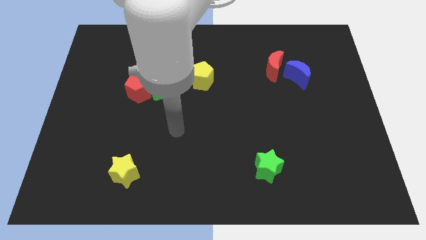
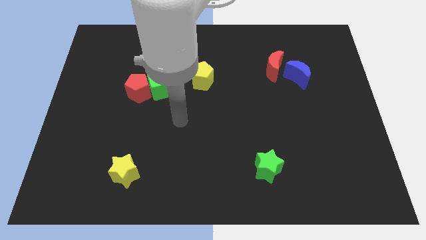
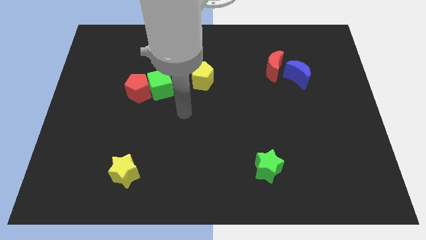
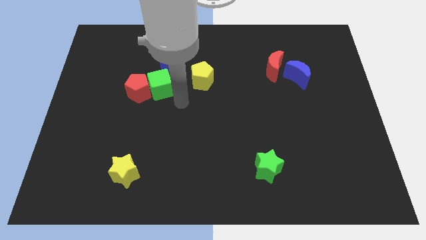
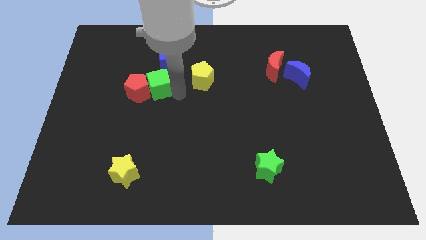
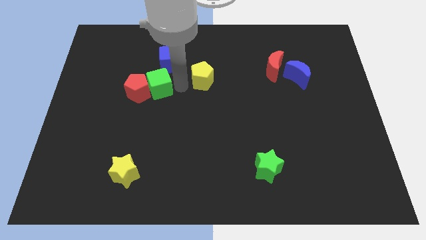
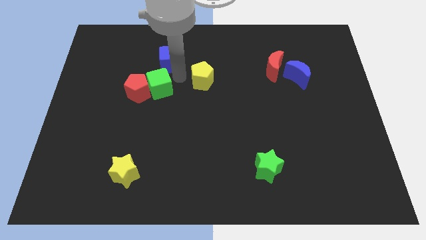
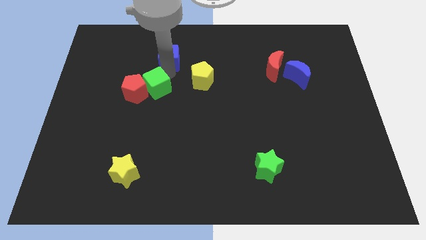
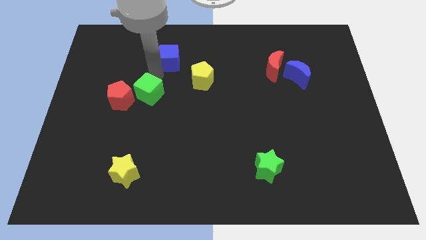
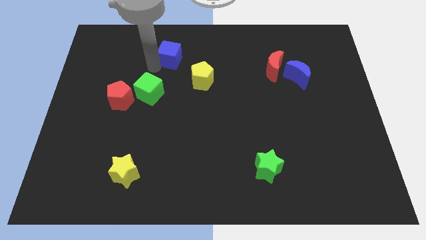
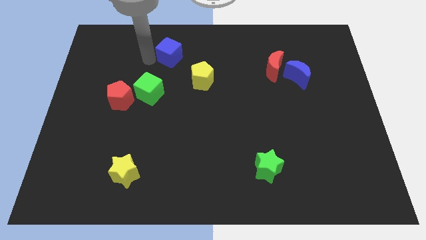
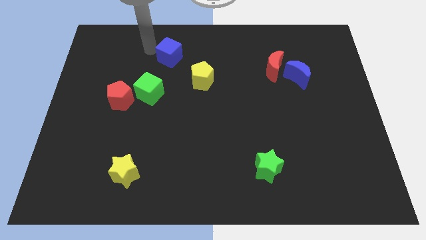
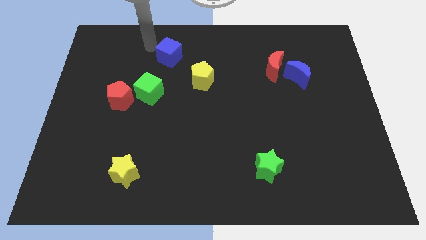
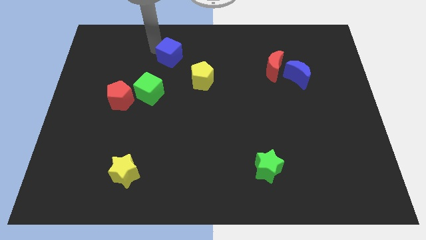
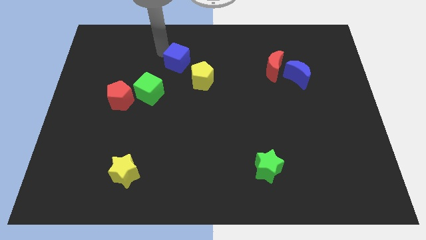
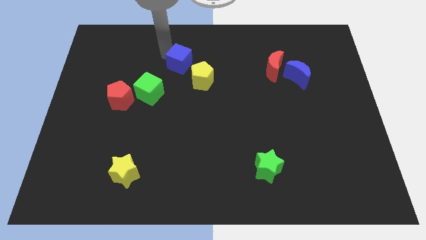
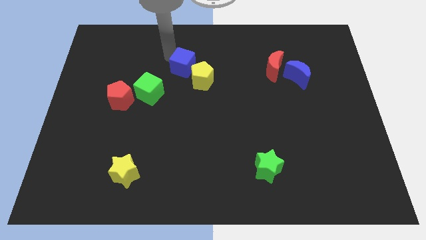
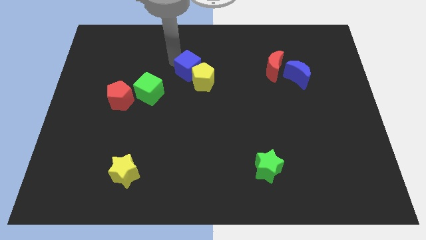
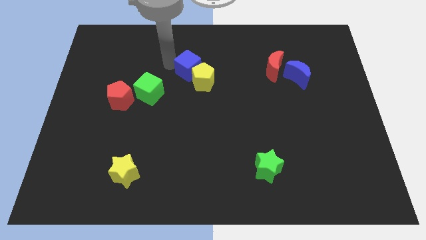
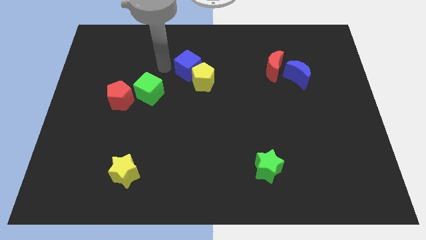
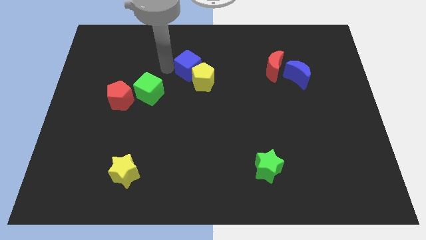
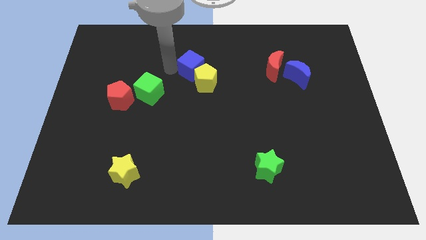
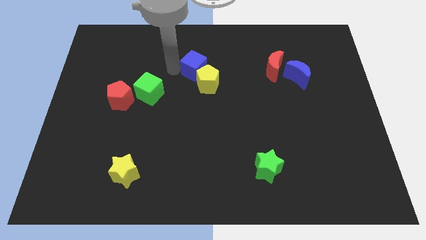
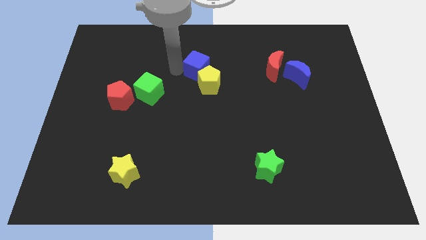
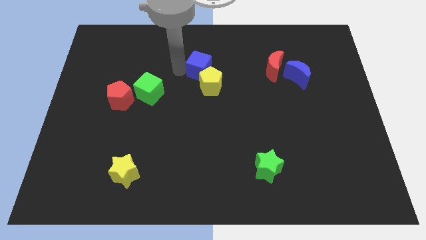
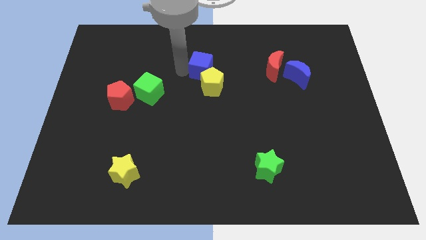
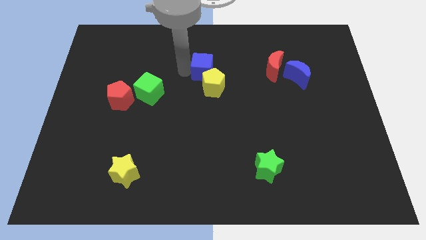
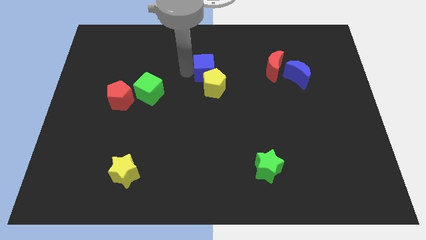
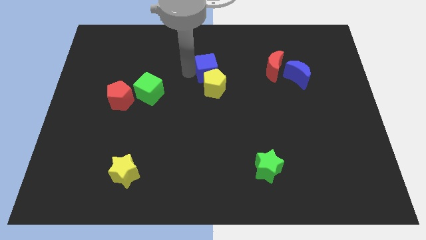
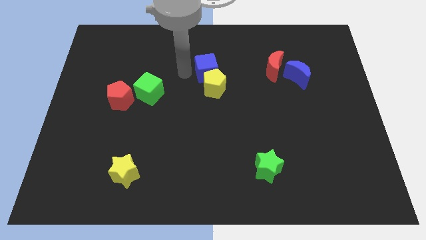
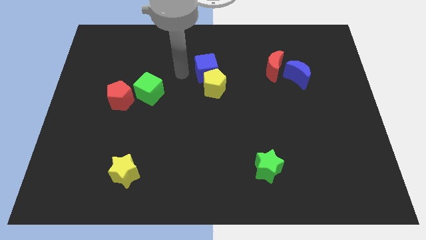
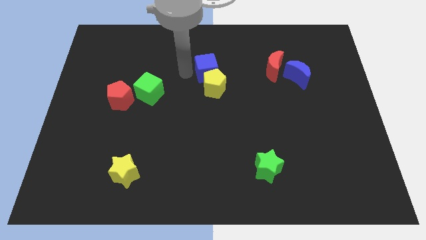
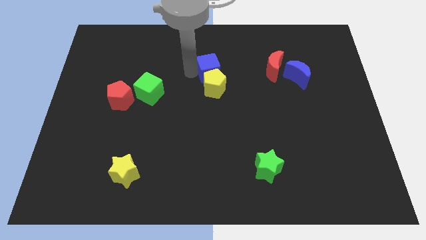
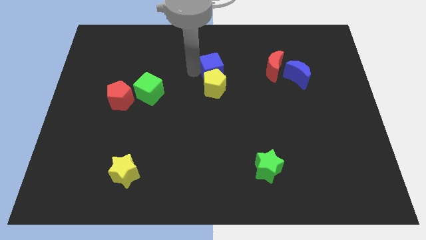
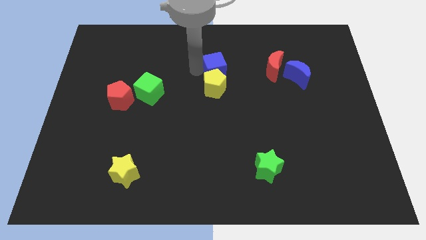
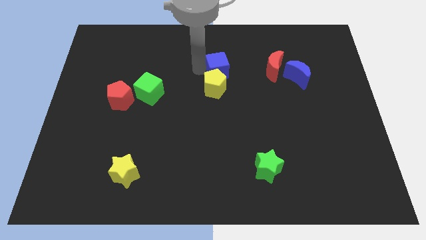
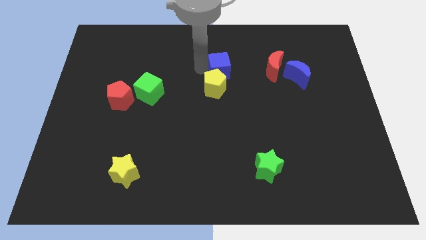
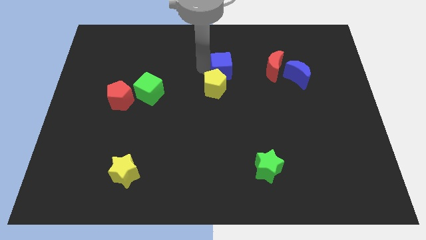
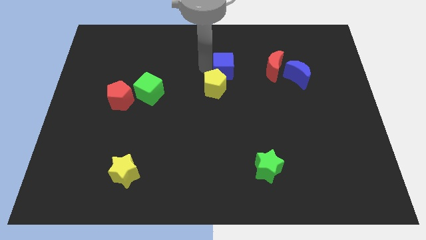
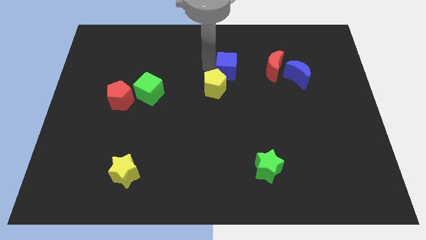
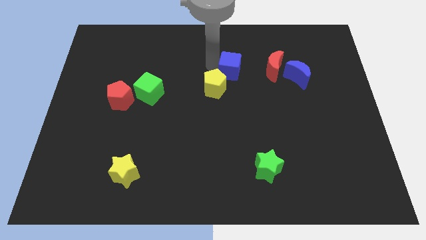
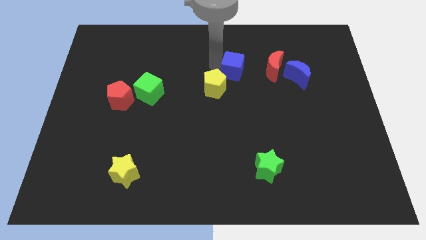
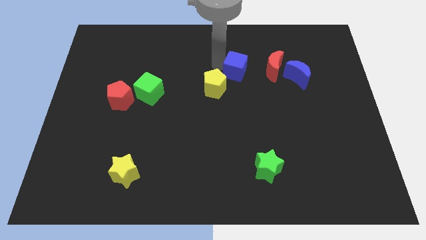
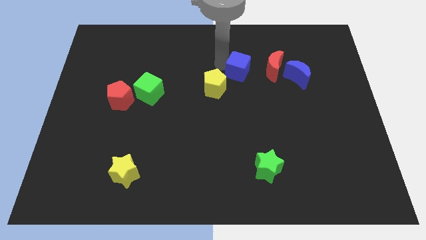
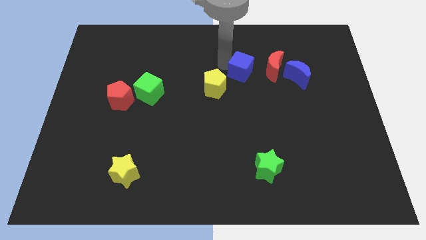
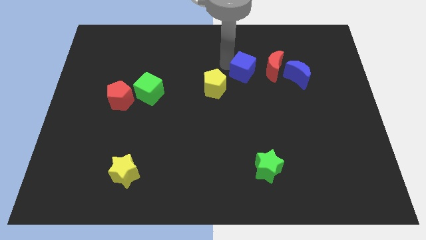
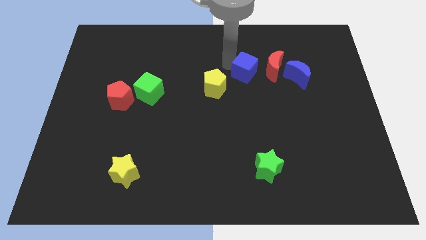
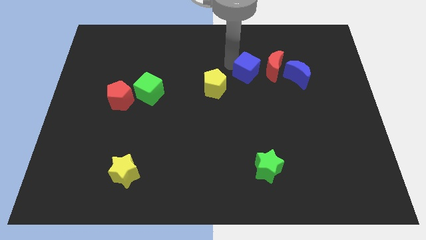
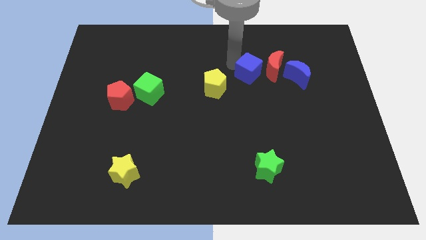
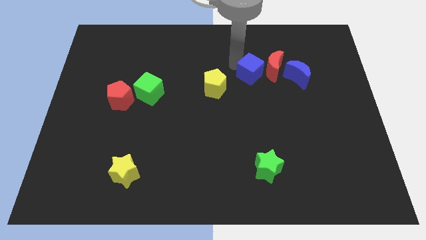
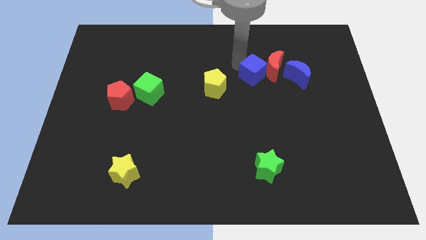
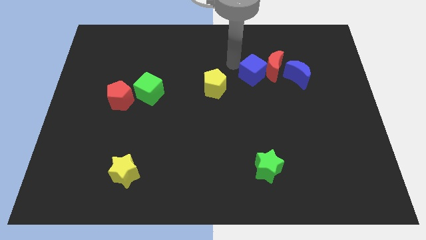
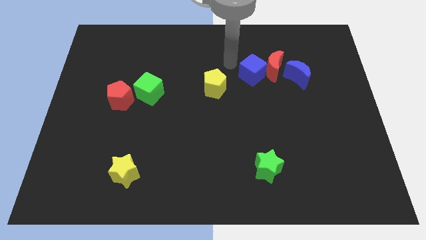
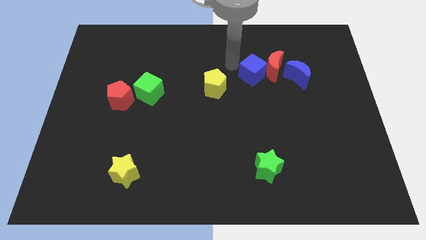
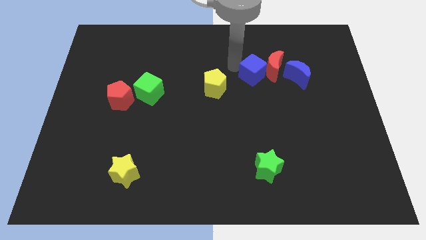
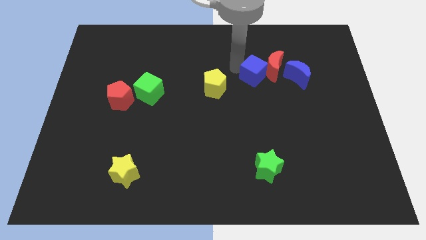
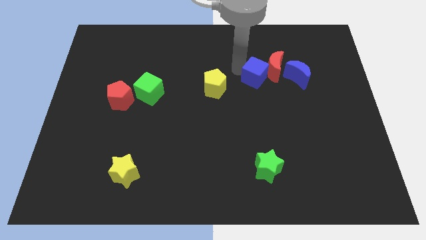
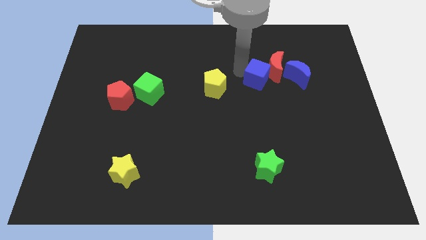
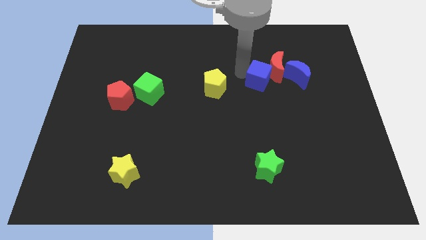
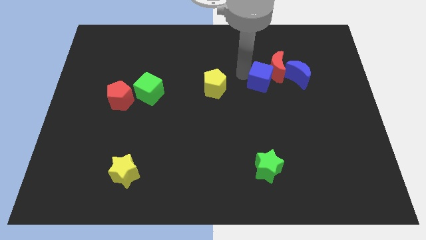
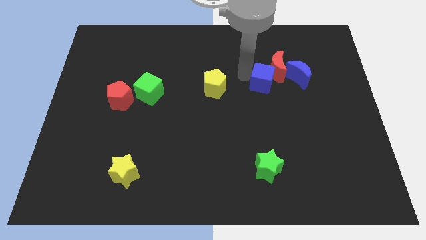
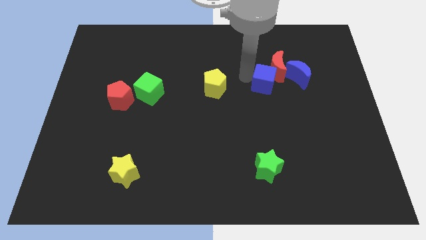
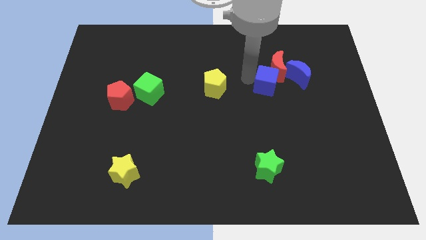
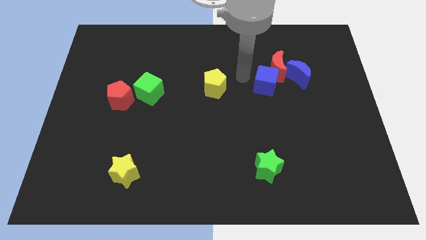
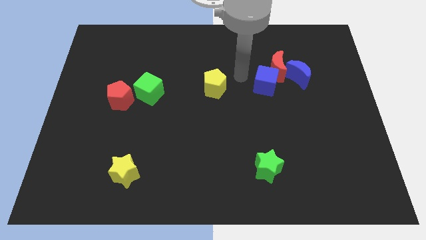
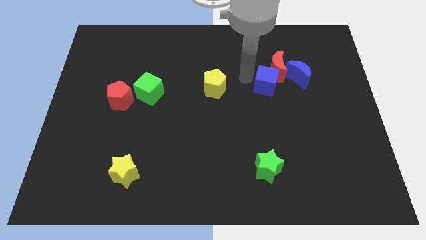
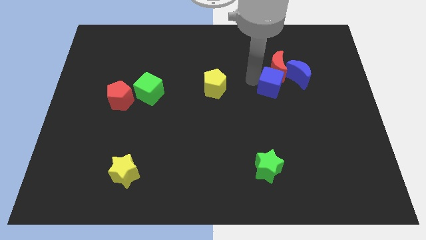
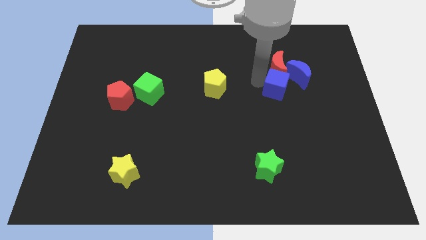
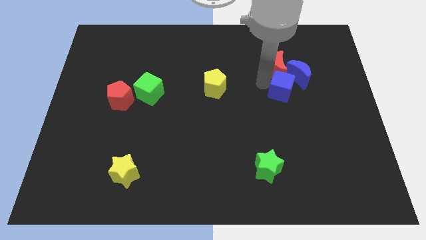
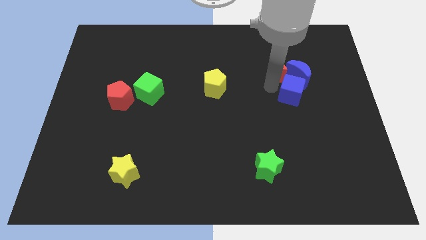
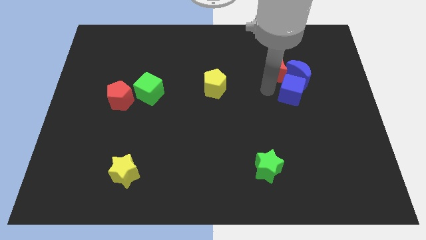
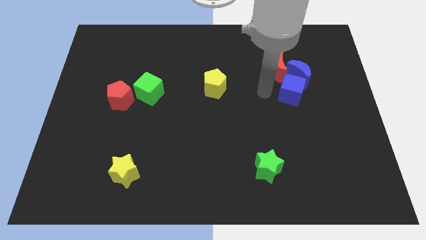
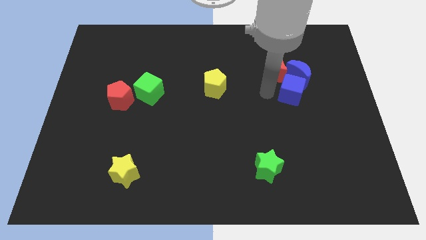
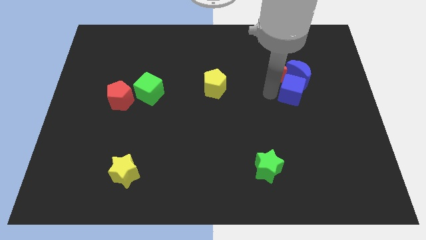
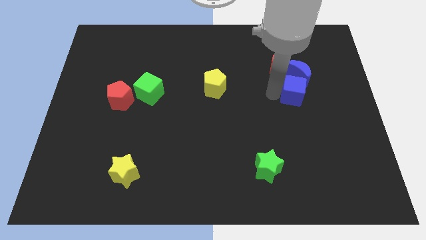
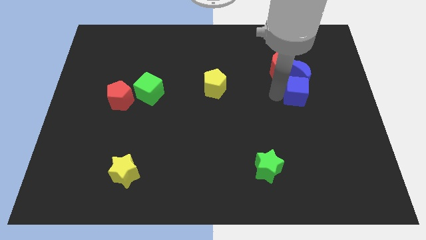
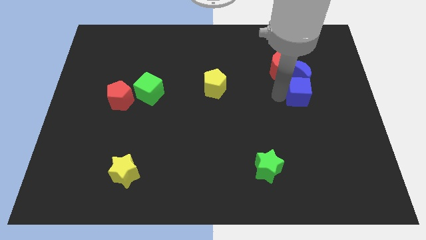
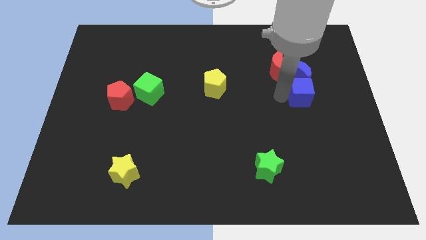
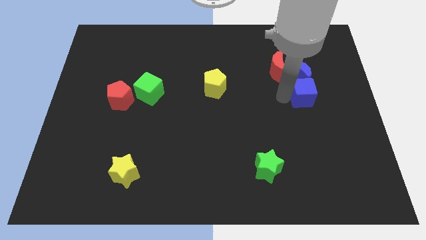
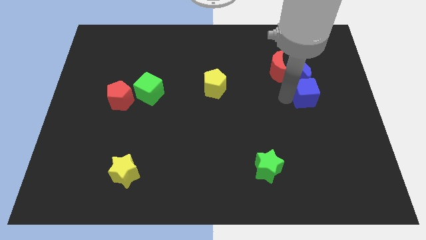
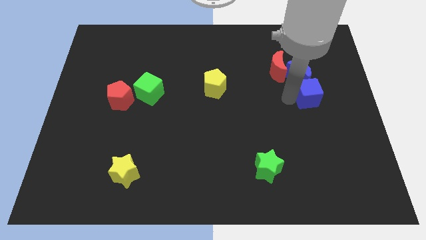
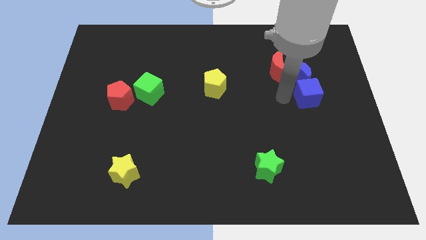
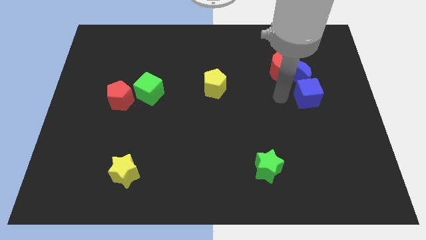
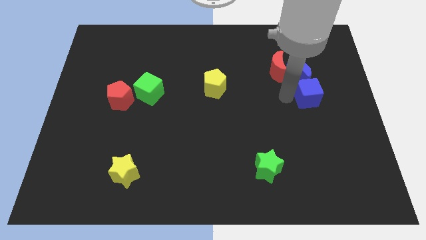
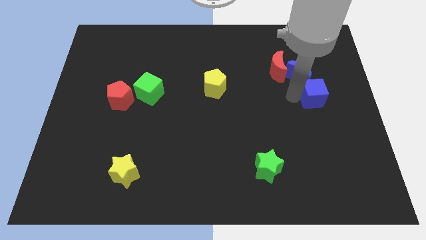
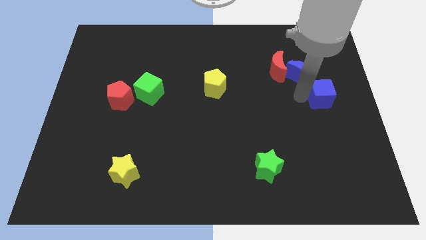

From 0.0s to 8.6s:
put the blue cube to the center right
